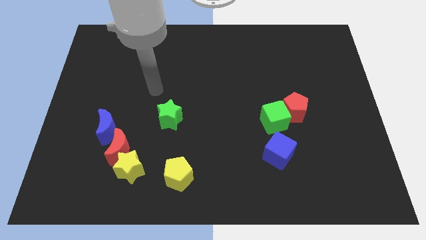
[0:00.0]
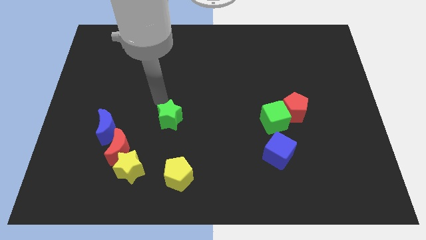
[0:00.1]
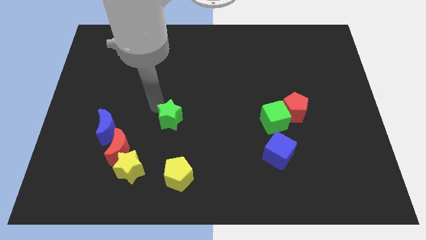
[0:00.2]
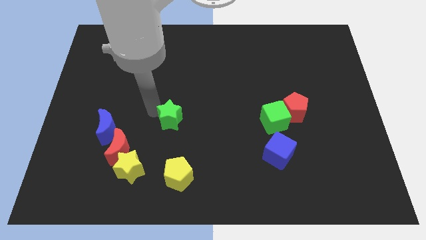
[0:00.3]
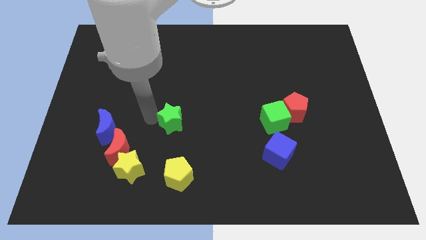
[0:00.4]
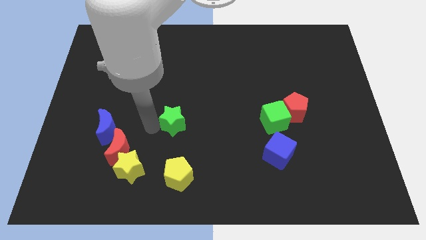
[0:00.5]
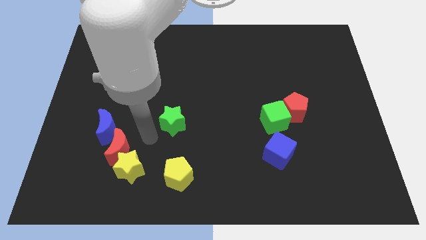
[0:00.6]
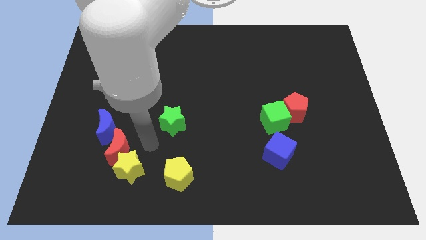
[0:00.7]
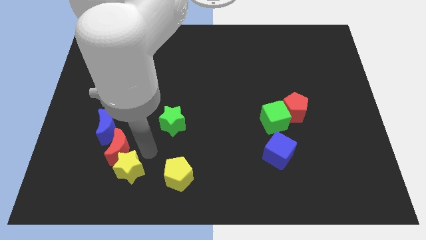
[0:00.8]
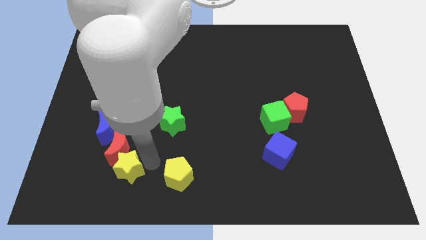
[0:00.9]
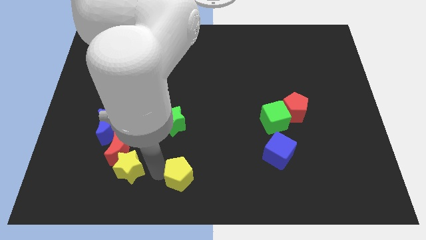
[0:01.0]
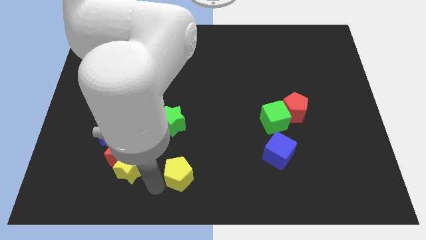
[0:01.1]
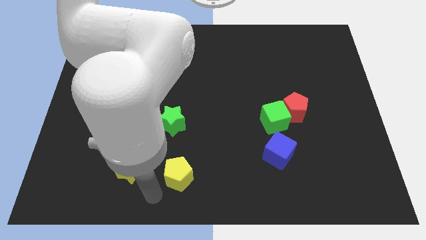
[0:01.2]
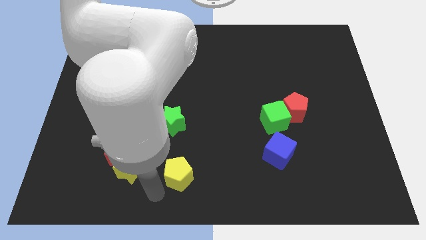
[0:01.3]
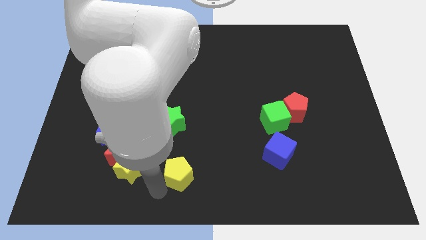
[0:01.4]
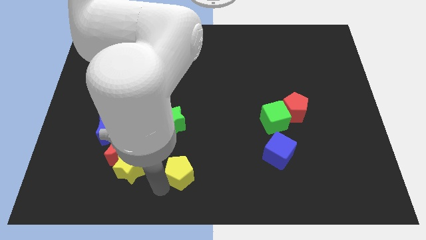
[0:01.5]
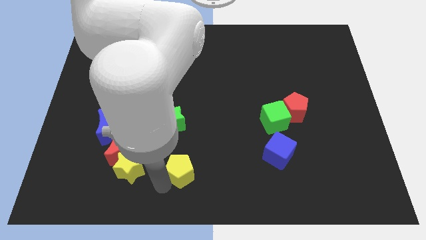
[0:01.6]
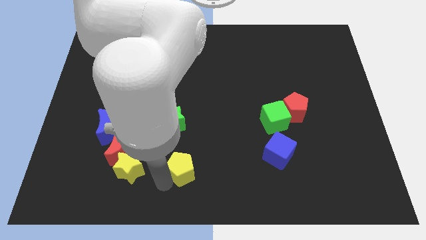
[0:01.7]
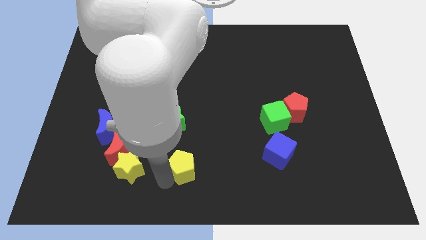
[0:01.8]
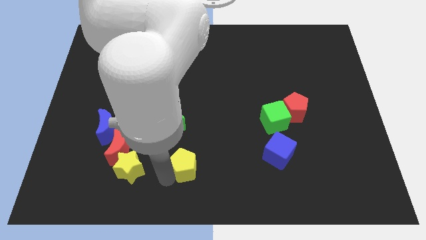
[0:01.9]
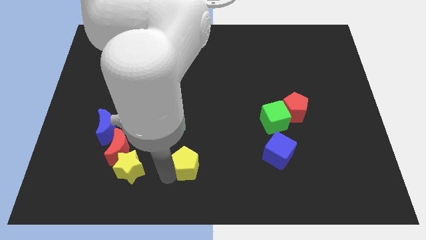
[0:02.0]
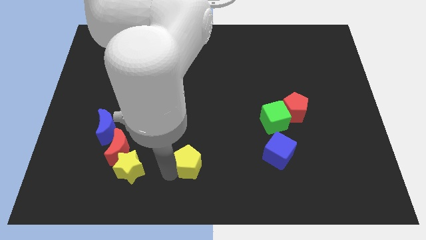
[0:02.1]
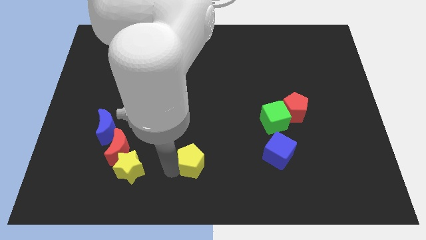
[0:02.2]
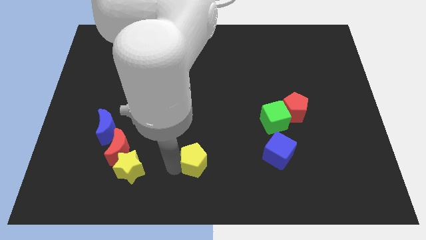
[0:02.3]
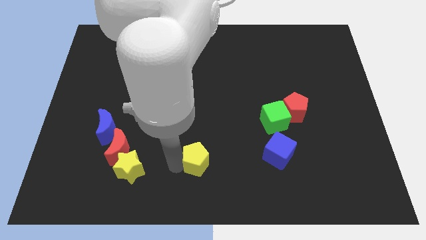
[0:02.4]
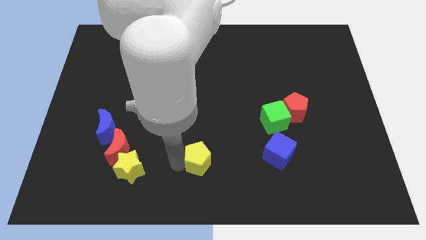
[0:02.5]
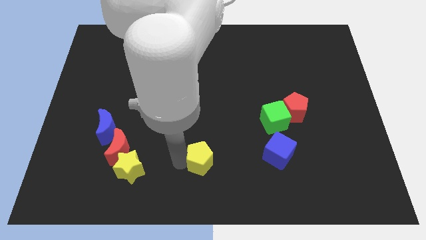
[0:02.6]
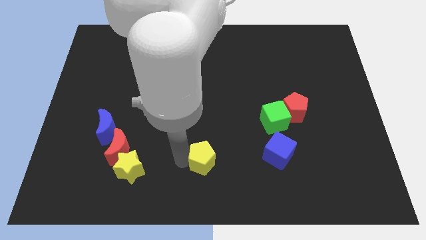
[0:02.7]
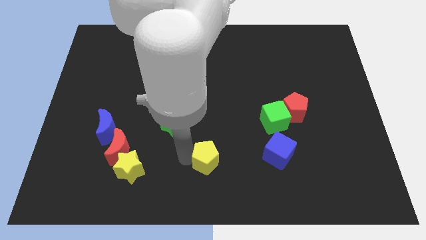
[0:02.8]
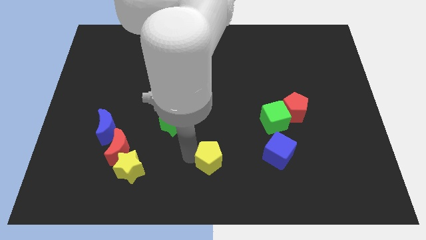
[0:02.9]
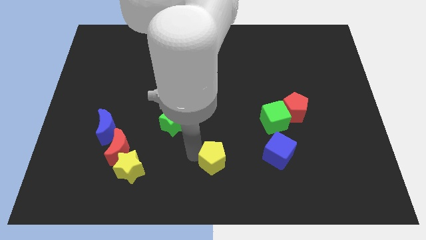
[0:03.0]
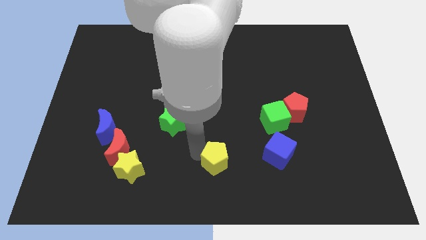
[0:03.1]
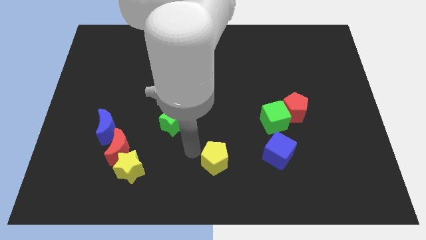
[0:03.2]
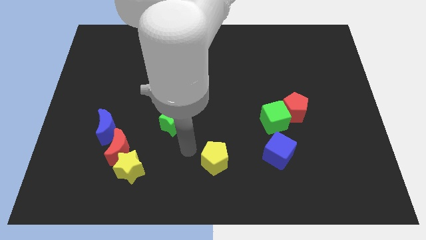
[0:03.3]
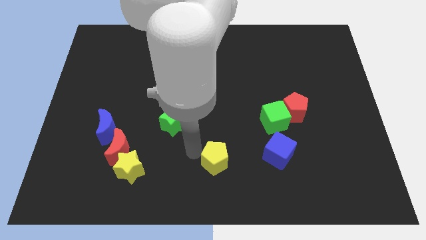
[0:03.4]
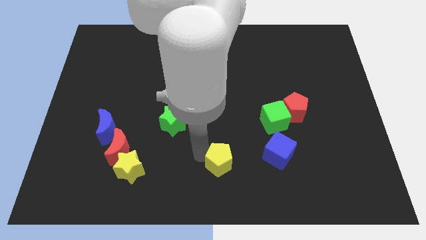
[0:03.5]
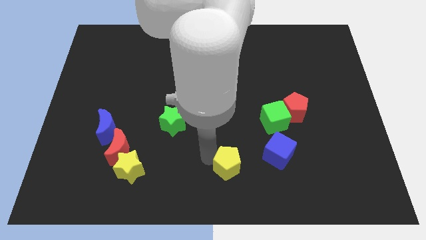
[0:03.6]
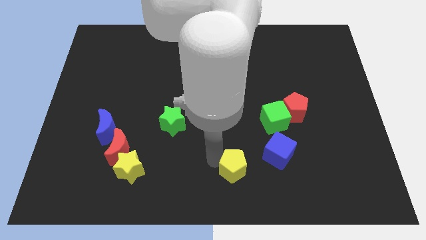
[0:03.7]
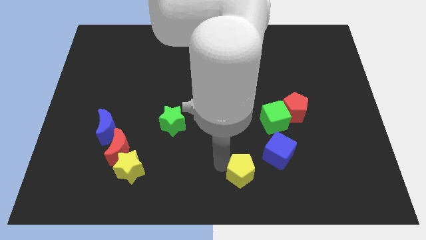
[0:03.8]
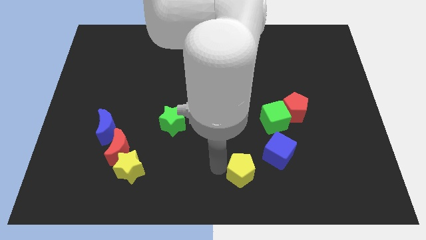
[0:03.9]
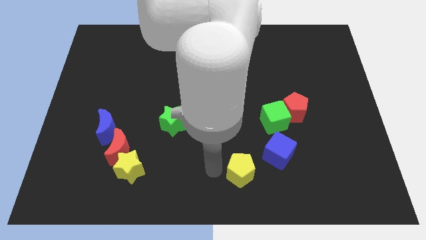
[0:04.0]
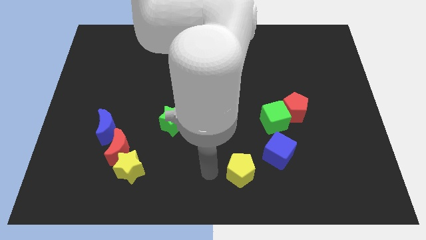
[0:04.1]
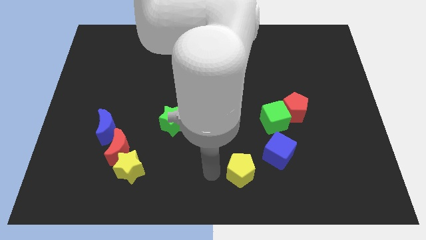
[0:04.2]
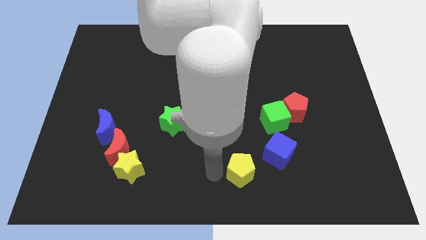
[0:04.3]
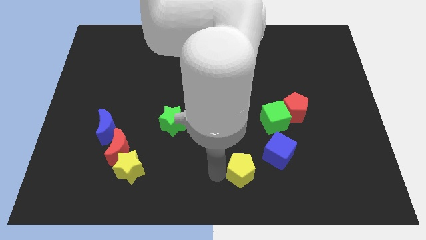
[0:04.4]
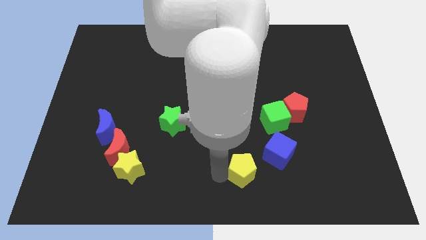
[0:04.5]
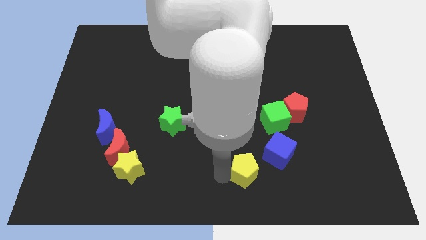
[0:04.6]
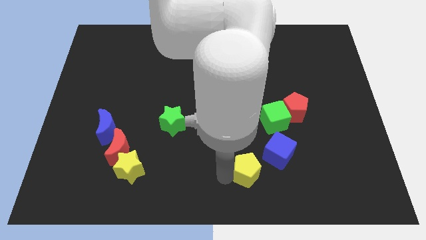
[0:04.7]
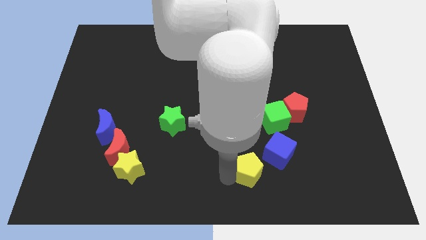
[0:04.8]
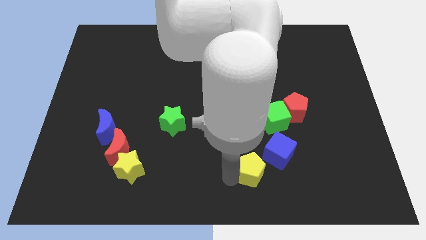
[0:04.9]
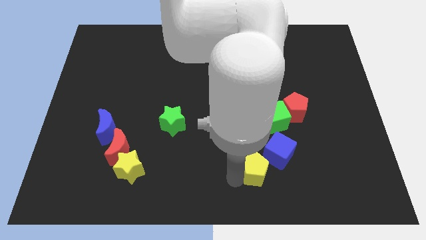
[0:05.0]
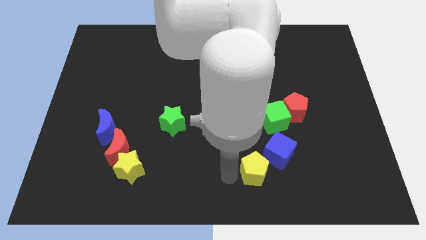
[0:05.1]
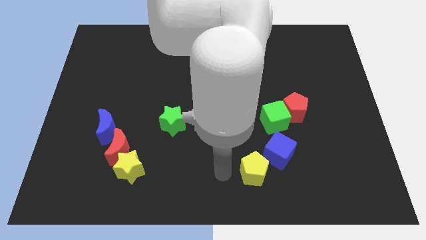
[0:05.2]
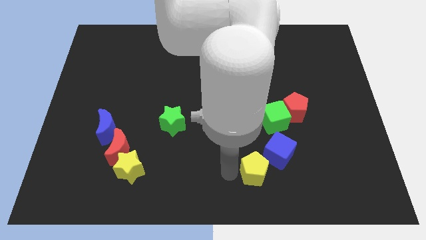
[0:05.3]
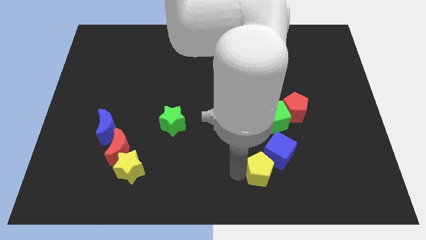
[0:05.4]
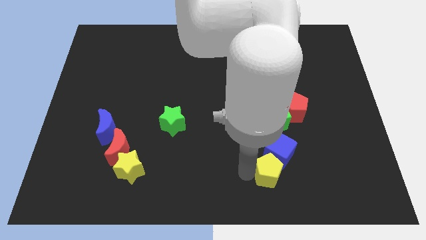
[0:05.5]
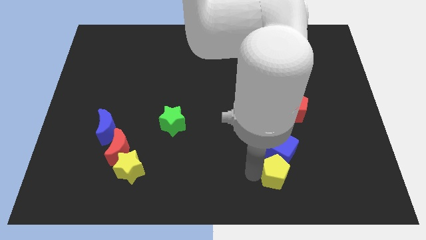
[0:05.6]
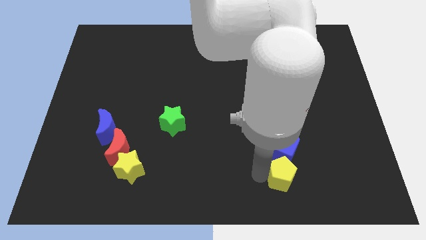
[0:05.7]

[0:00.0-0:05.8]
slide the yellow pentagon to the right

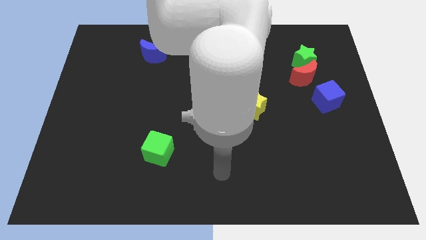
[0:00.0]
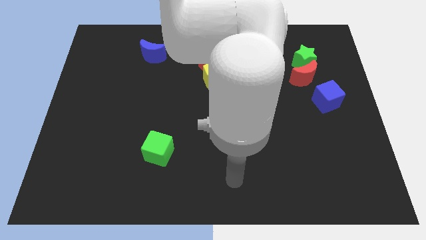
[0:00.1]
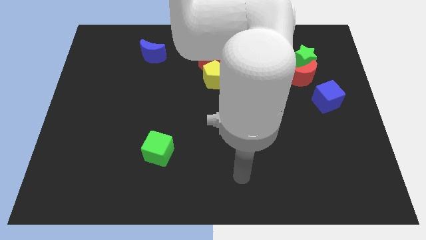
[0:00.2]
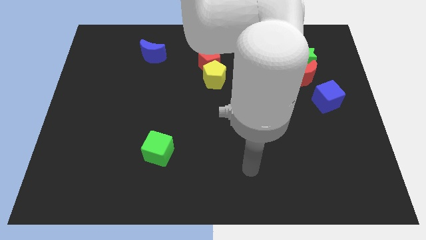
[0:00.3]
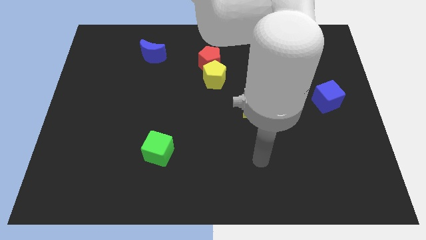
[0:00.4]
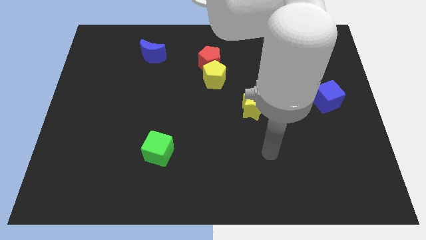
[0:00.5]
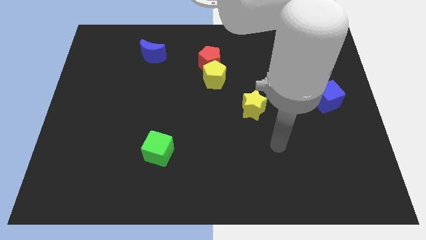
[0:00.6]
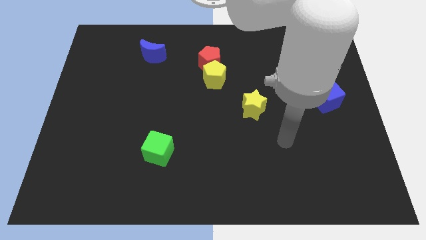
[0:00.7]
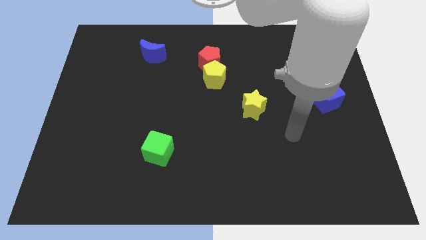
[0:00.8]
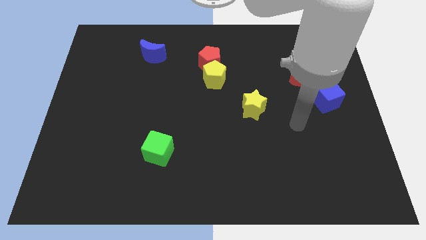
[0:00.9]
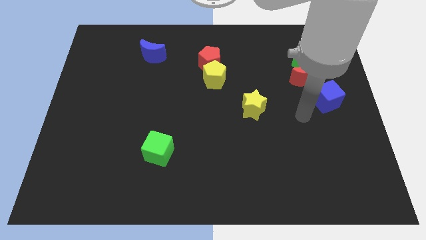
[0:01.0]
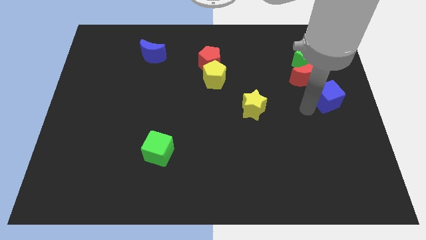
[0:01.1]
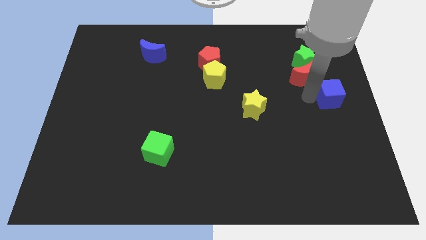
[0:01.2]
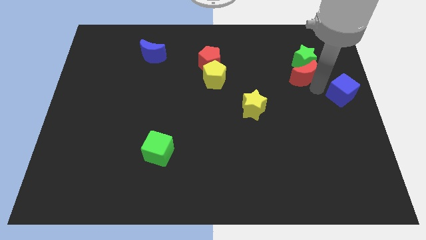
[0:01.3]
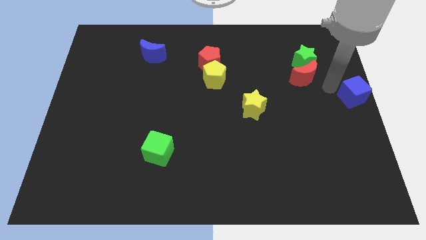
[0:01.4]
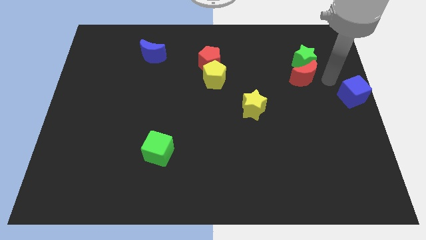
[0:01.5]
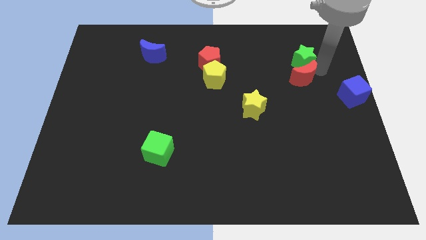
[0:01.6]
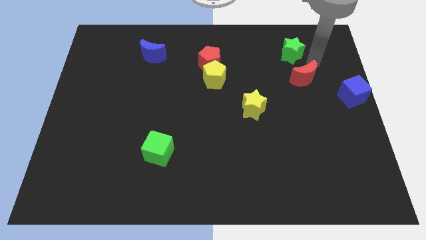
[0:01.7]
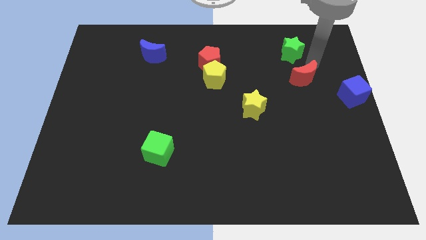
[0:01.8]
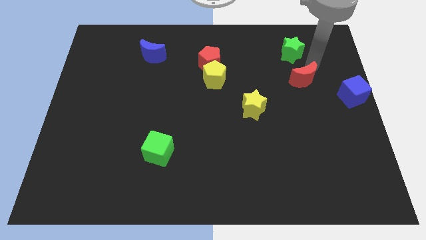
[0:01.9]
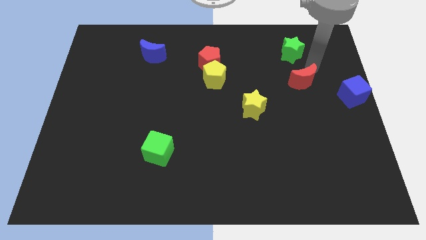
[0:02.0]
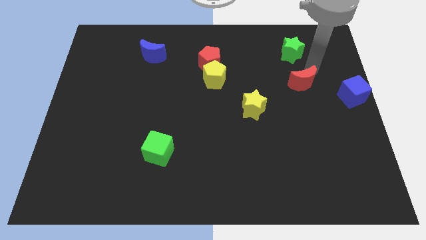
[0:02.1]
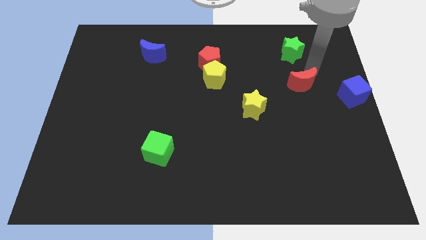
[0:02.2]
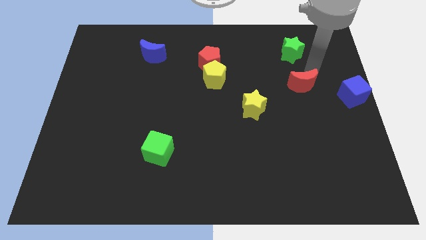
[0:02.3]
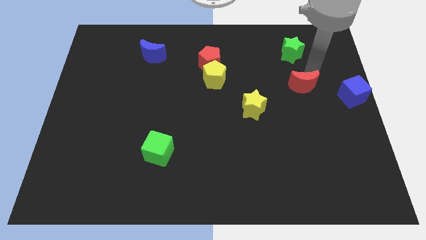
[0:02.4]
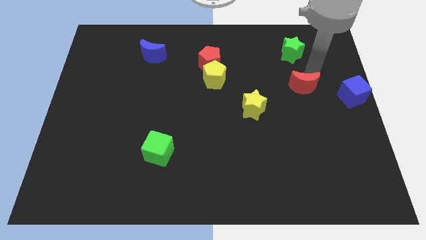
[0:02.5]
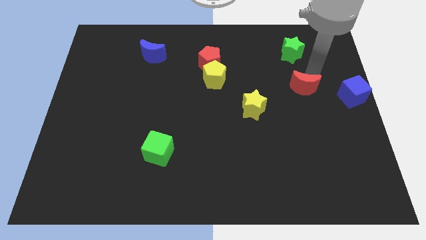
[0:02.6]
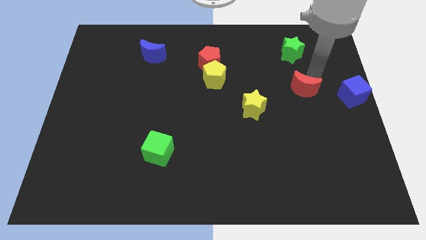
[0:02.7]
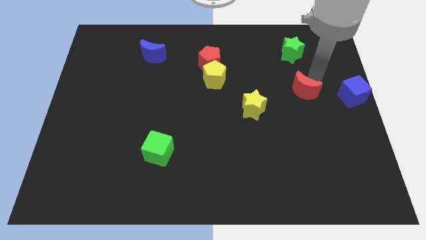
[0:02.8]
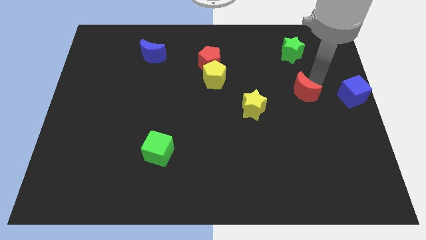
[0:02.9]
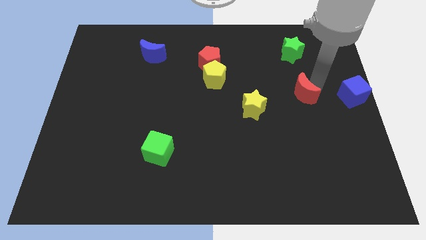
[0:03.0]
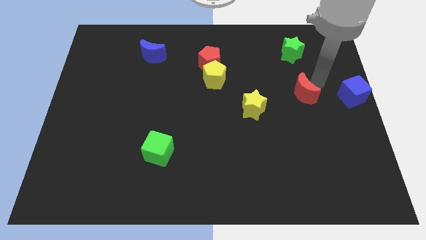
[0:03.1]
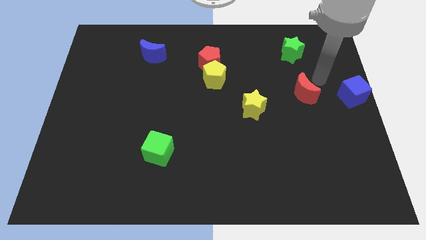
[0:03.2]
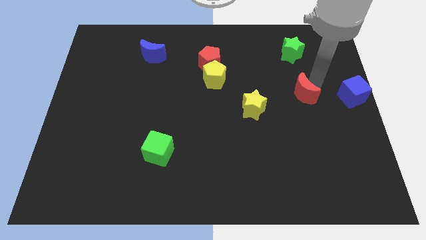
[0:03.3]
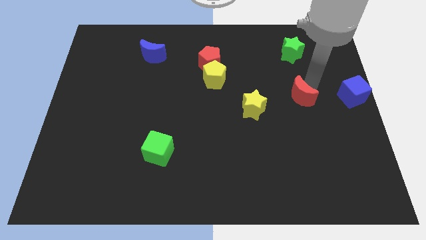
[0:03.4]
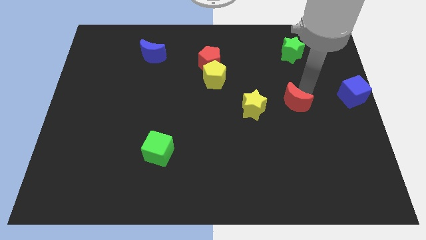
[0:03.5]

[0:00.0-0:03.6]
move the red moon somewhat down and left
